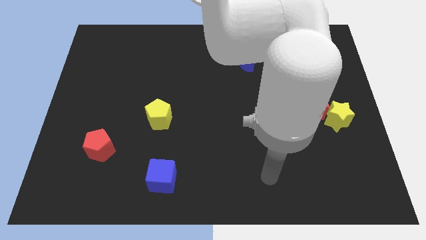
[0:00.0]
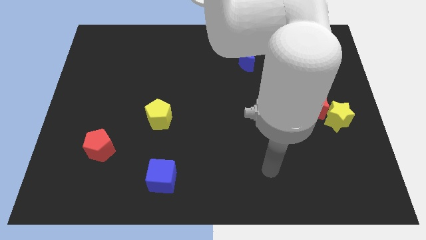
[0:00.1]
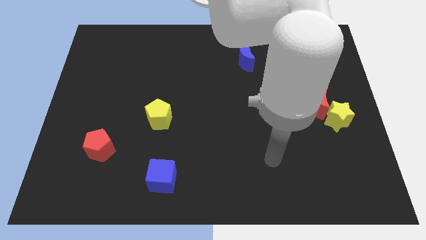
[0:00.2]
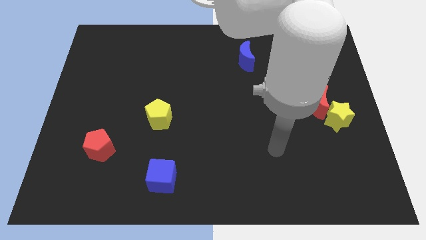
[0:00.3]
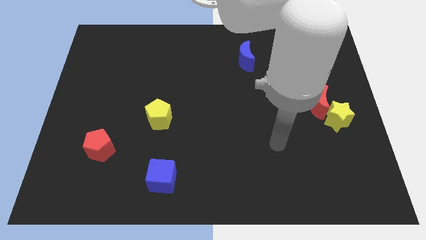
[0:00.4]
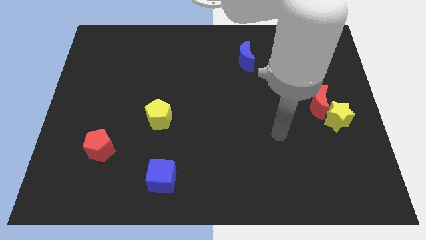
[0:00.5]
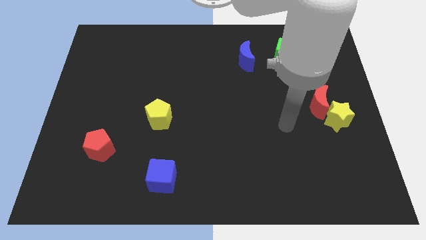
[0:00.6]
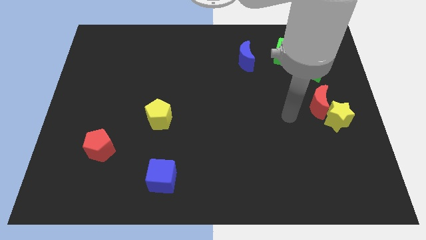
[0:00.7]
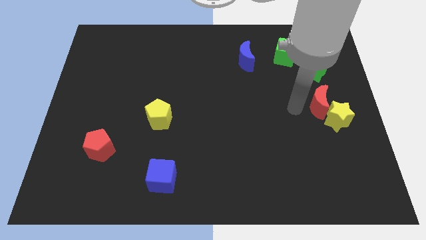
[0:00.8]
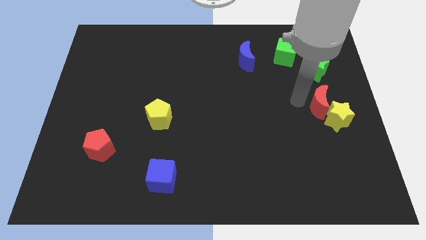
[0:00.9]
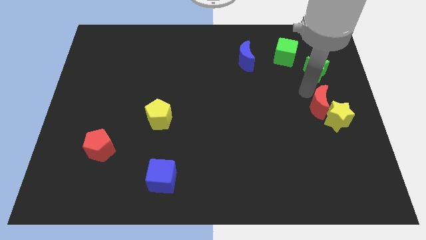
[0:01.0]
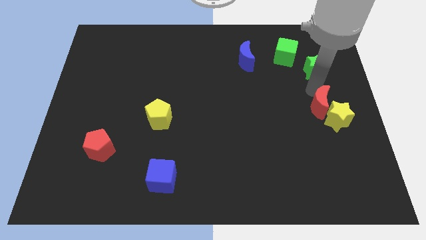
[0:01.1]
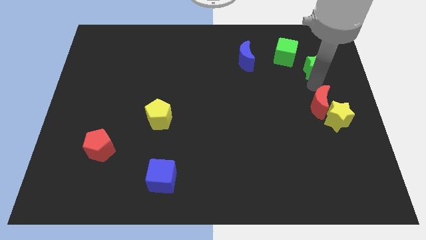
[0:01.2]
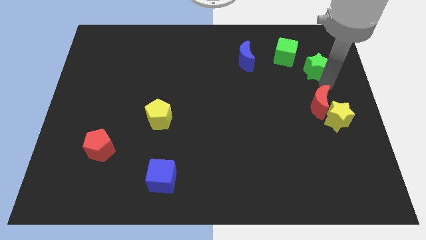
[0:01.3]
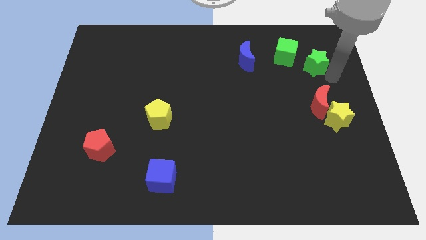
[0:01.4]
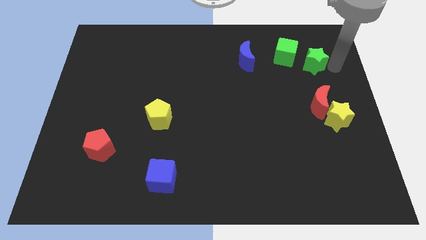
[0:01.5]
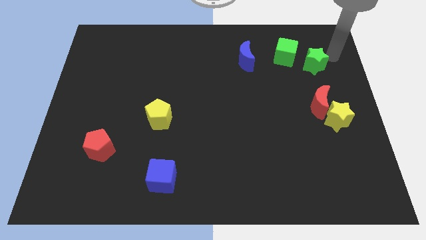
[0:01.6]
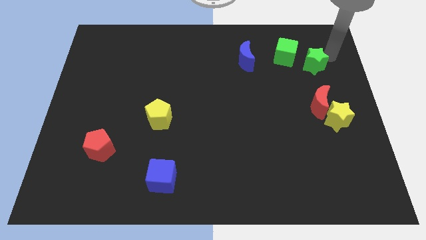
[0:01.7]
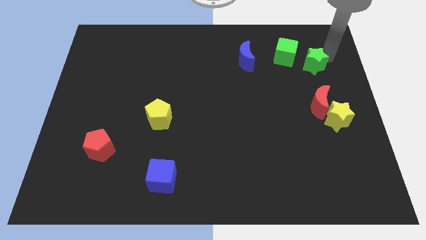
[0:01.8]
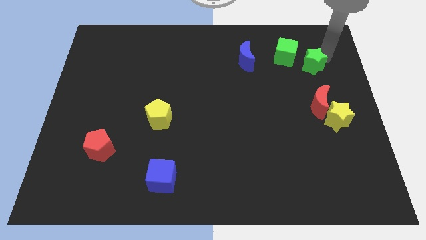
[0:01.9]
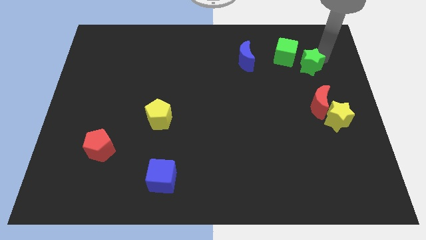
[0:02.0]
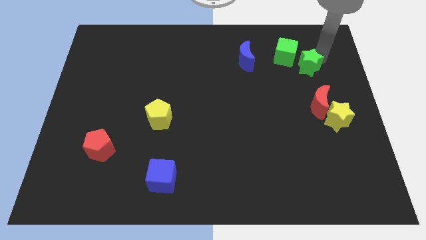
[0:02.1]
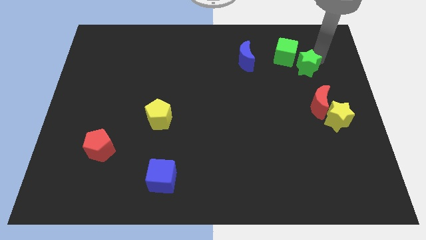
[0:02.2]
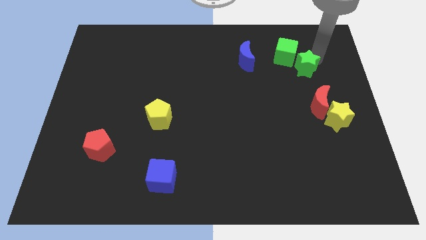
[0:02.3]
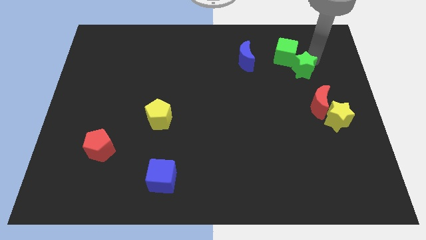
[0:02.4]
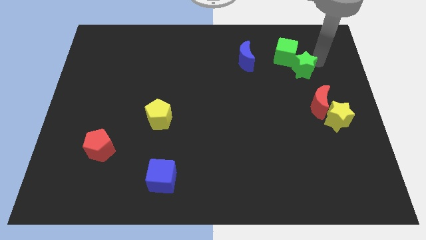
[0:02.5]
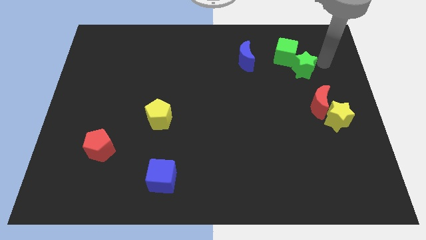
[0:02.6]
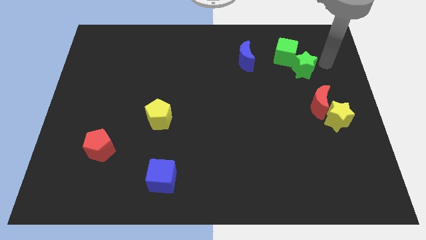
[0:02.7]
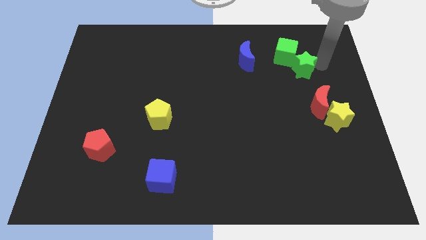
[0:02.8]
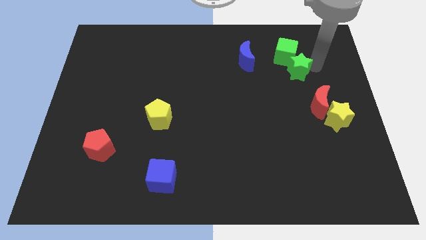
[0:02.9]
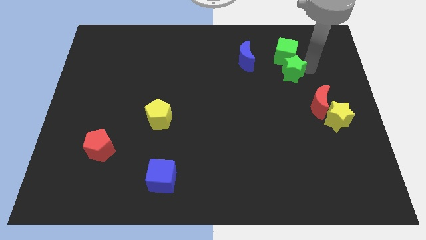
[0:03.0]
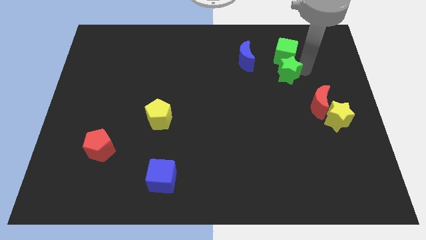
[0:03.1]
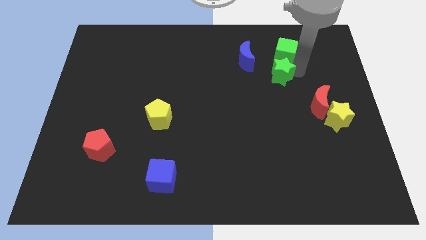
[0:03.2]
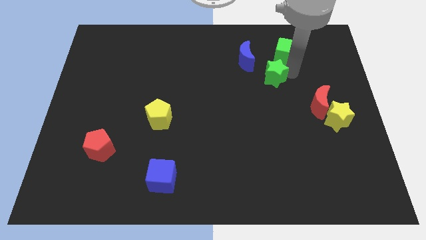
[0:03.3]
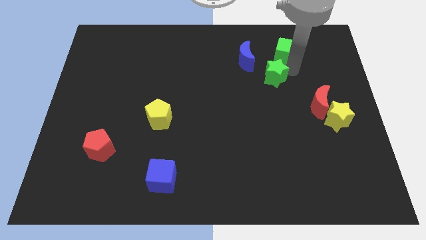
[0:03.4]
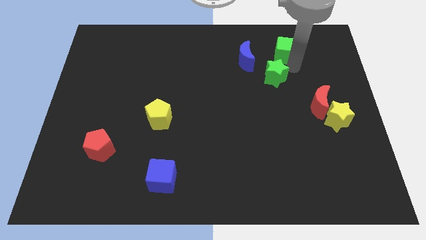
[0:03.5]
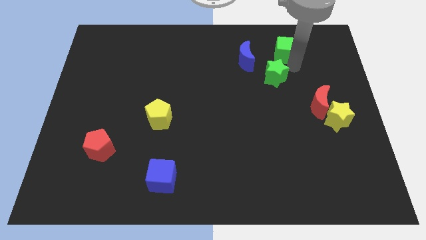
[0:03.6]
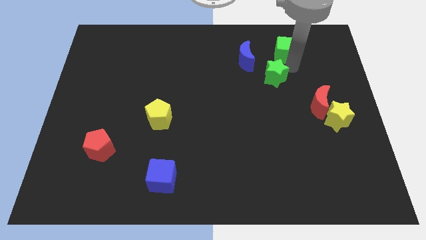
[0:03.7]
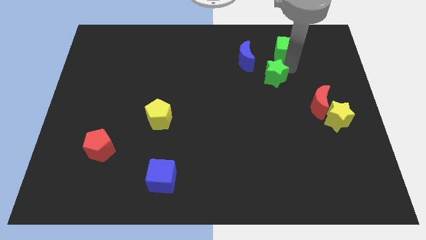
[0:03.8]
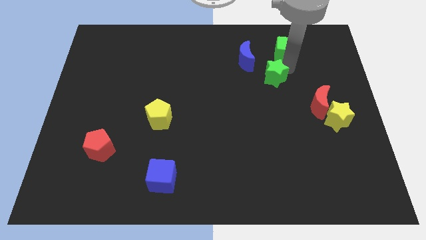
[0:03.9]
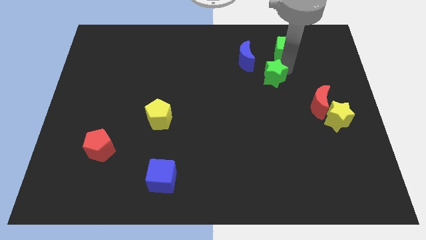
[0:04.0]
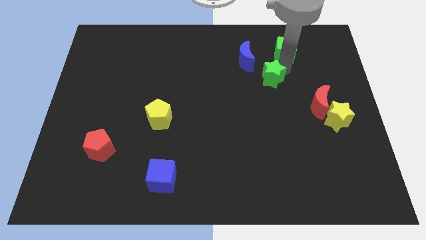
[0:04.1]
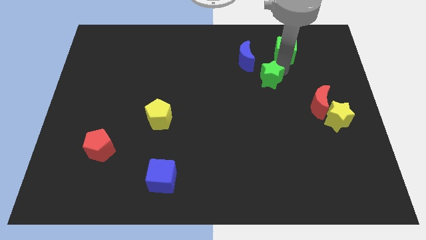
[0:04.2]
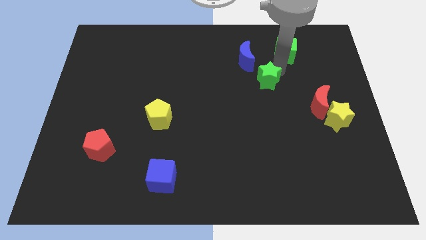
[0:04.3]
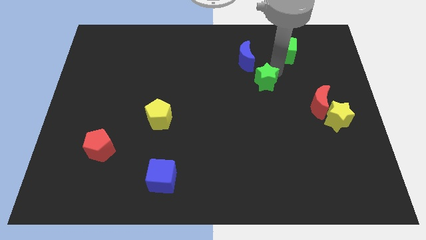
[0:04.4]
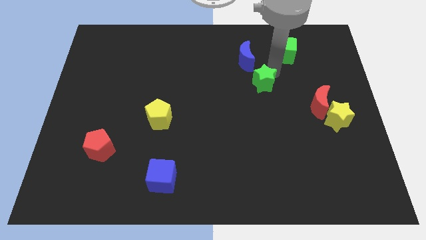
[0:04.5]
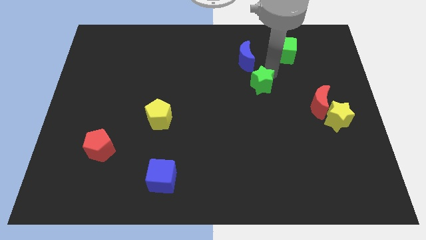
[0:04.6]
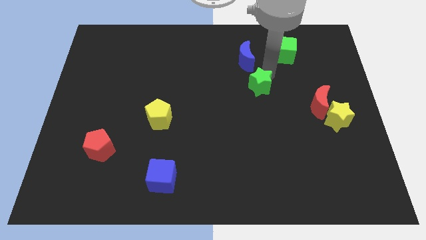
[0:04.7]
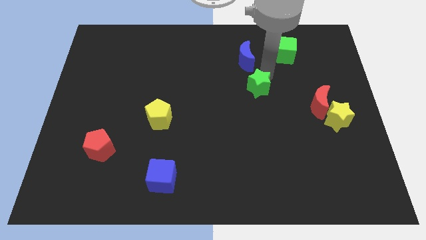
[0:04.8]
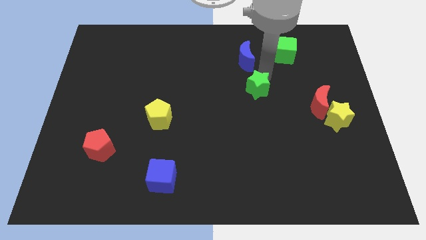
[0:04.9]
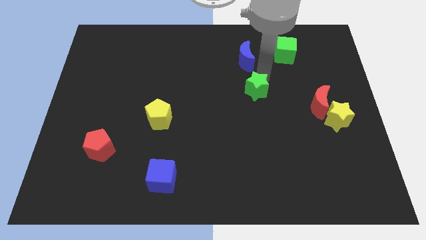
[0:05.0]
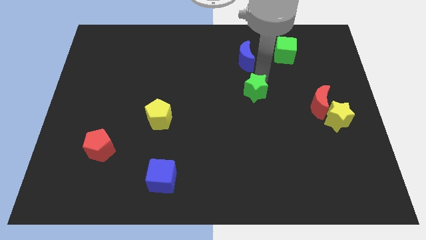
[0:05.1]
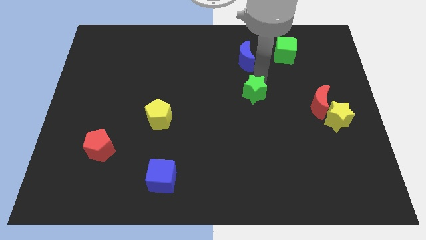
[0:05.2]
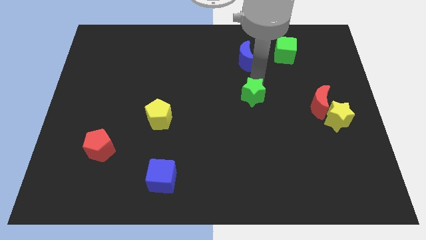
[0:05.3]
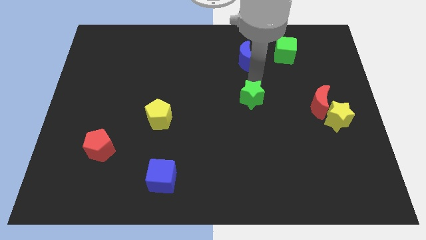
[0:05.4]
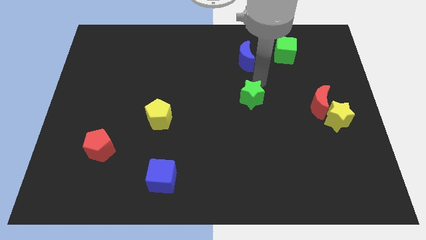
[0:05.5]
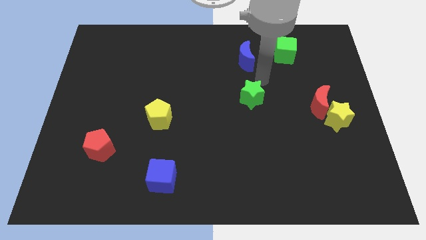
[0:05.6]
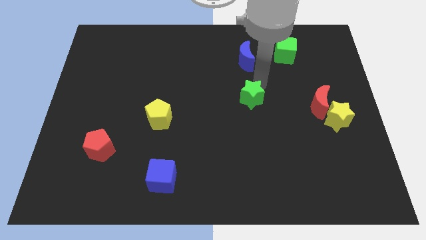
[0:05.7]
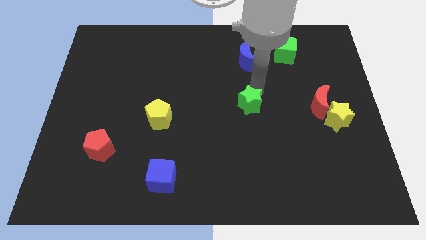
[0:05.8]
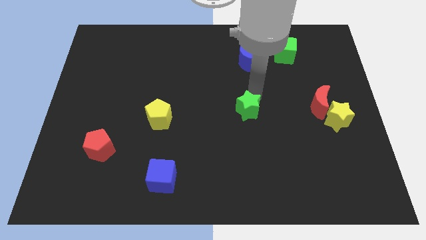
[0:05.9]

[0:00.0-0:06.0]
push the green star down and to the left

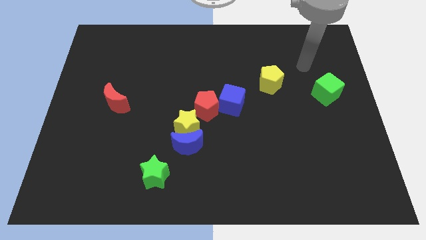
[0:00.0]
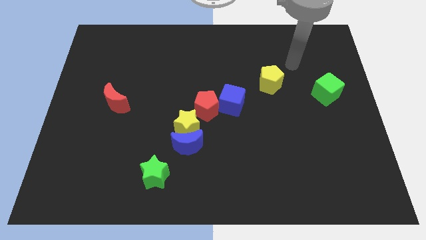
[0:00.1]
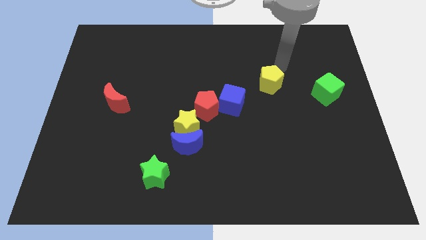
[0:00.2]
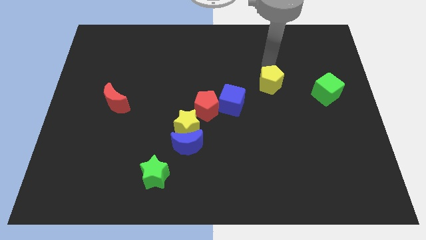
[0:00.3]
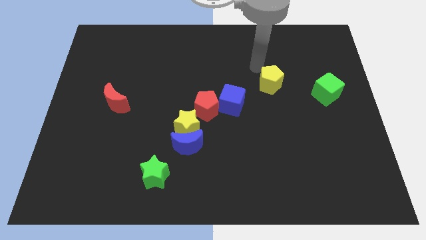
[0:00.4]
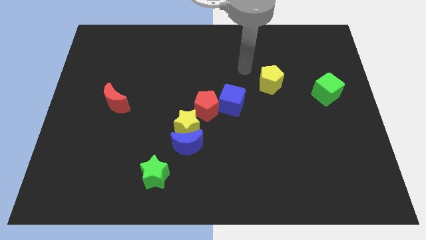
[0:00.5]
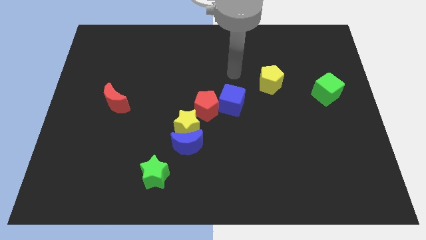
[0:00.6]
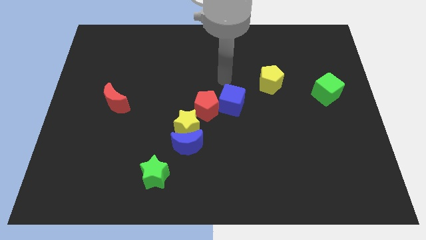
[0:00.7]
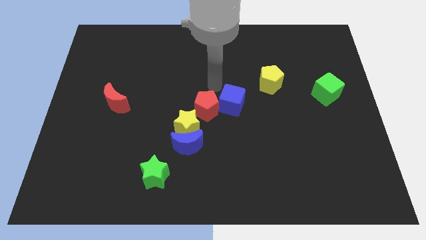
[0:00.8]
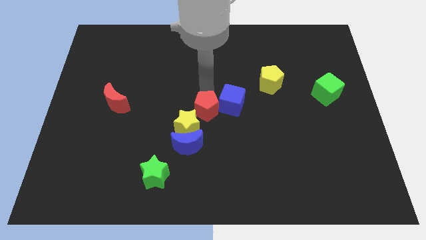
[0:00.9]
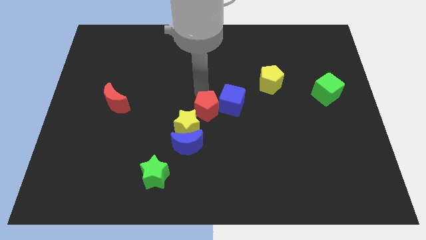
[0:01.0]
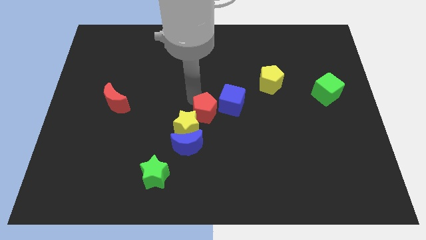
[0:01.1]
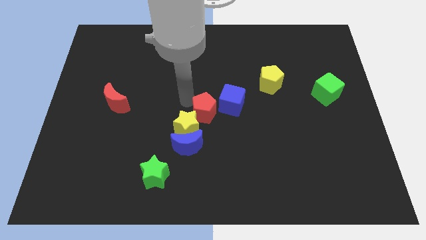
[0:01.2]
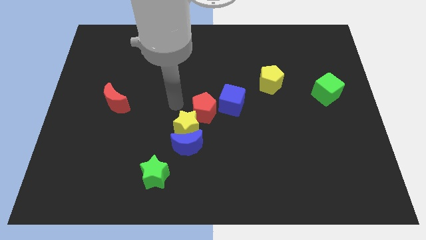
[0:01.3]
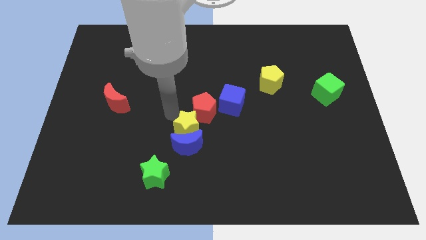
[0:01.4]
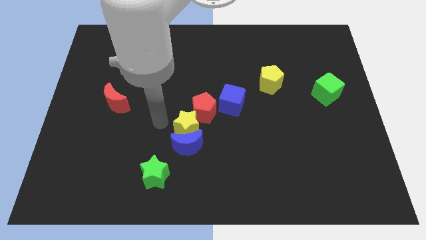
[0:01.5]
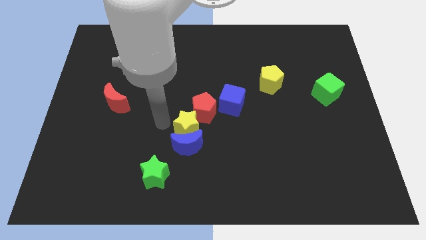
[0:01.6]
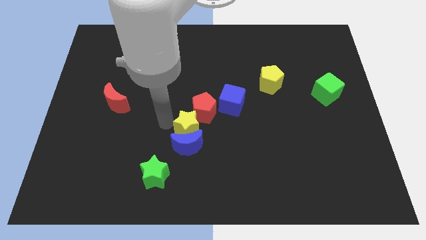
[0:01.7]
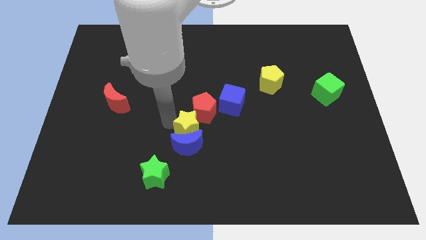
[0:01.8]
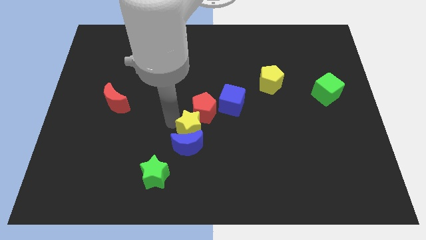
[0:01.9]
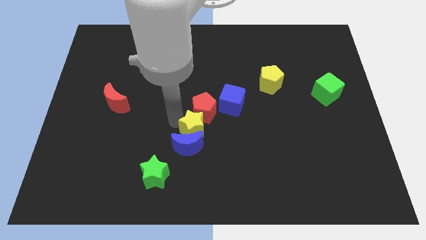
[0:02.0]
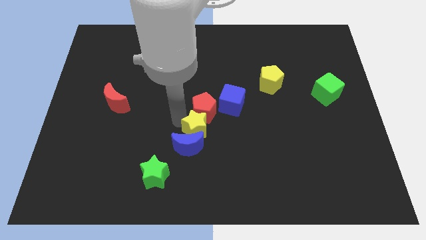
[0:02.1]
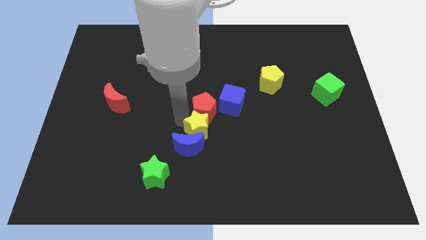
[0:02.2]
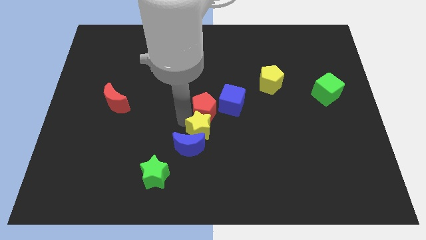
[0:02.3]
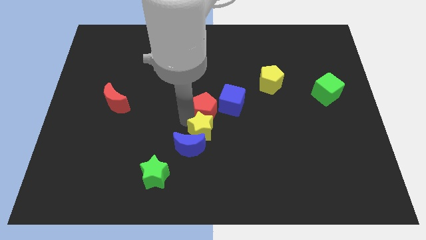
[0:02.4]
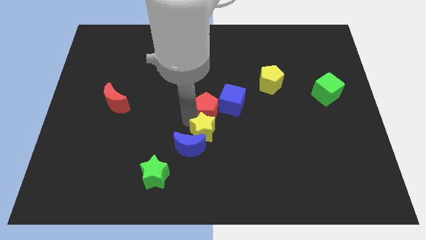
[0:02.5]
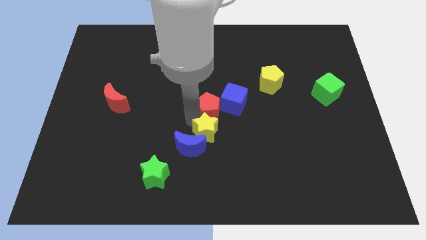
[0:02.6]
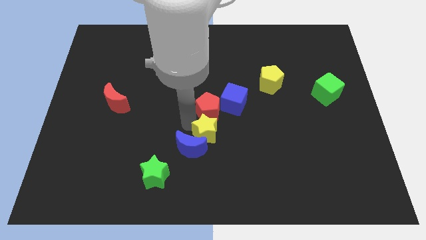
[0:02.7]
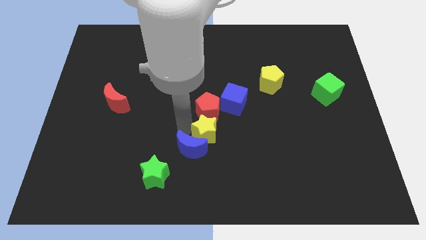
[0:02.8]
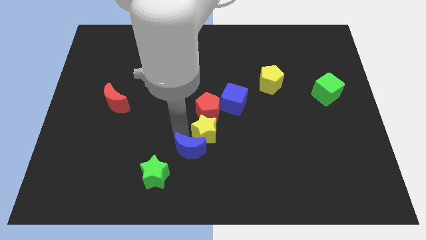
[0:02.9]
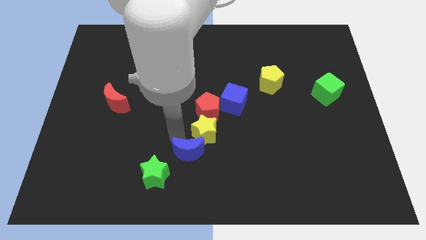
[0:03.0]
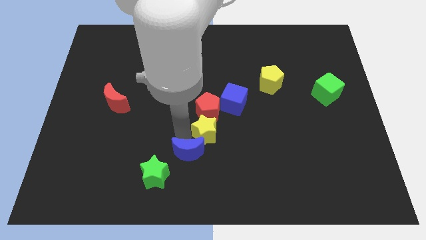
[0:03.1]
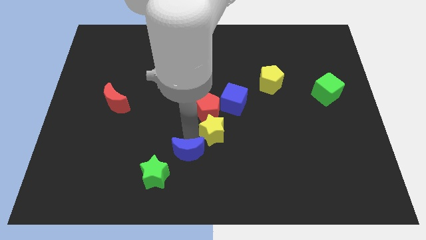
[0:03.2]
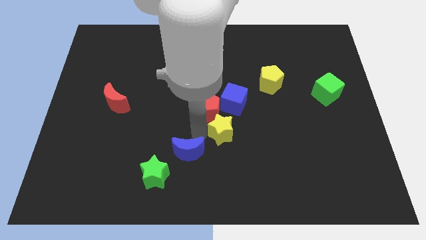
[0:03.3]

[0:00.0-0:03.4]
move the yellow star slightly to the right
